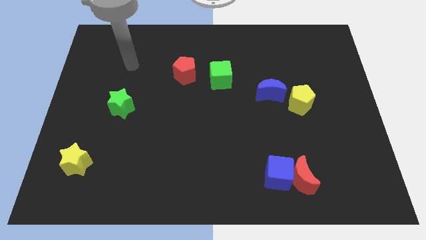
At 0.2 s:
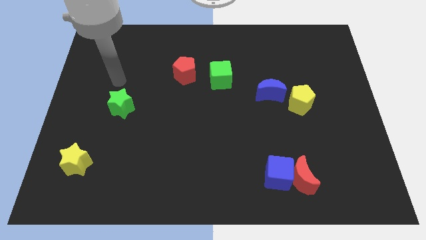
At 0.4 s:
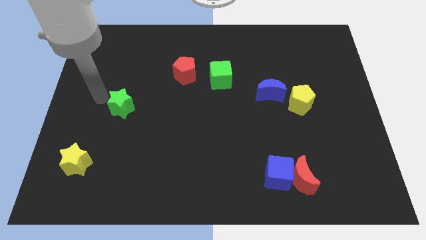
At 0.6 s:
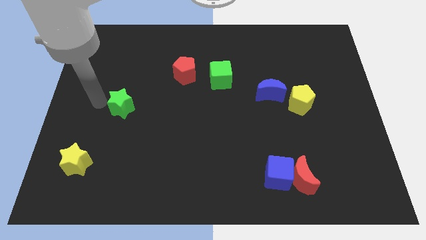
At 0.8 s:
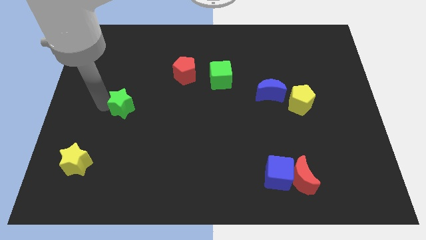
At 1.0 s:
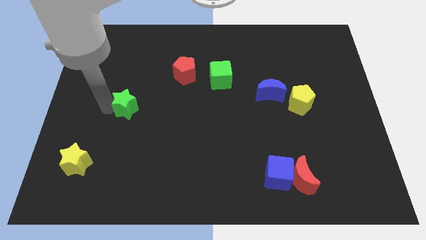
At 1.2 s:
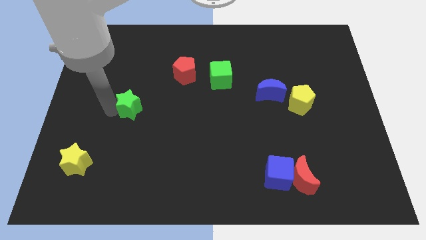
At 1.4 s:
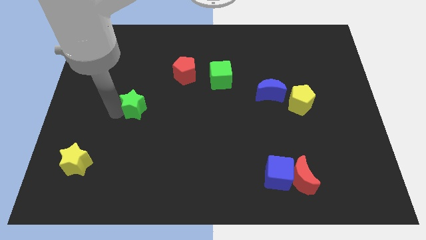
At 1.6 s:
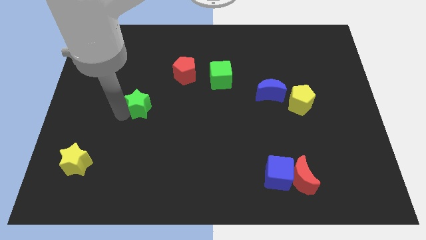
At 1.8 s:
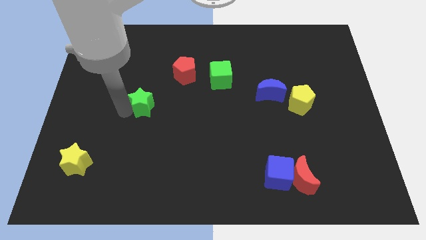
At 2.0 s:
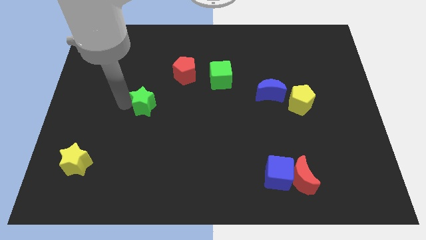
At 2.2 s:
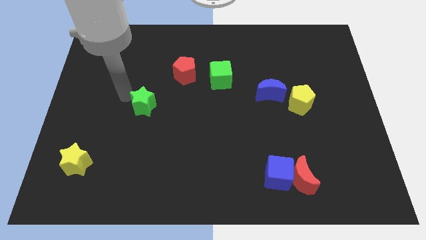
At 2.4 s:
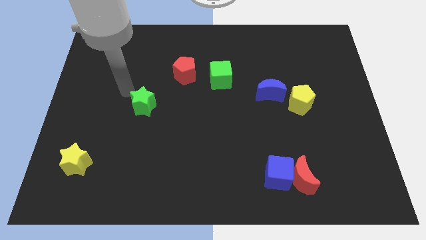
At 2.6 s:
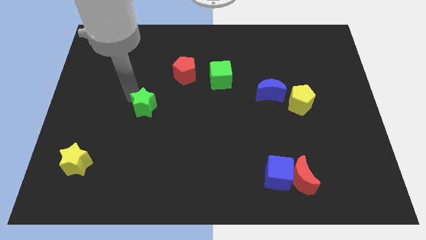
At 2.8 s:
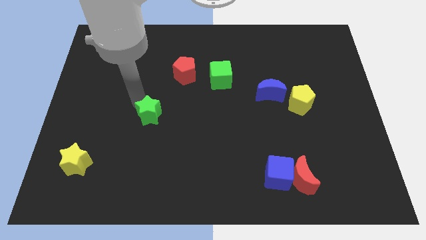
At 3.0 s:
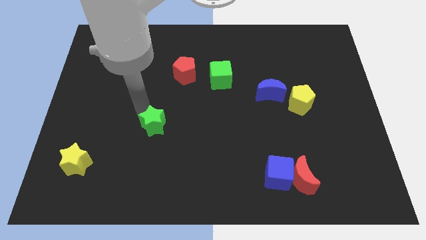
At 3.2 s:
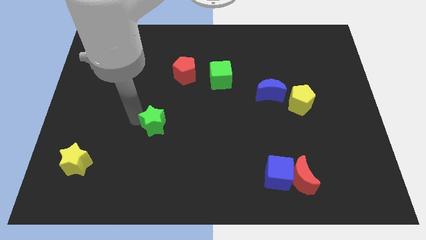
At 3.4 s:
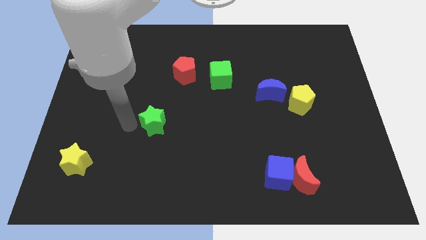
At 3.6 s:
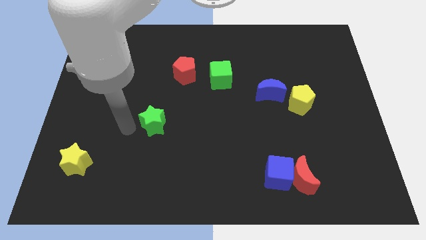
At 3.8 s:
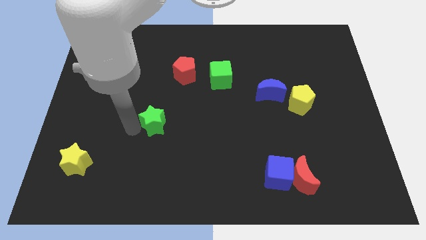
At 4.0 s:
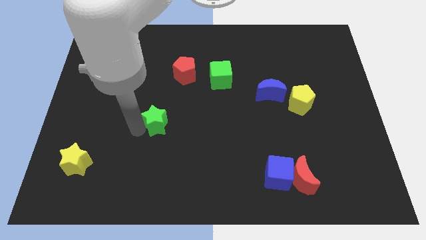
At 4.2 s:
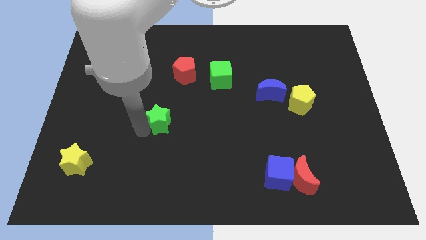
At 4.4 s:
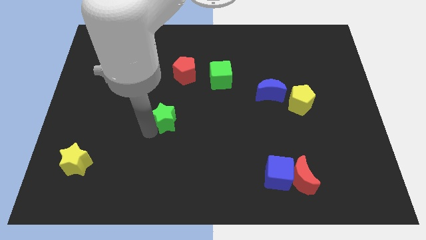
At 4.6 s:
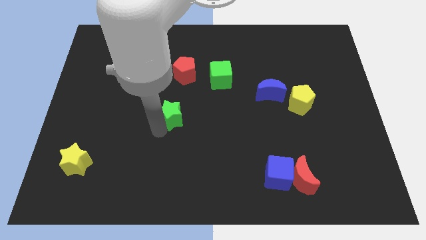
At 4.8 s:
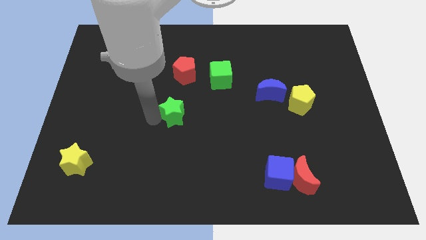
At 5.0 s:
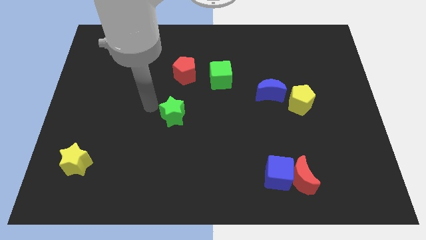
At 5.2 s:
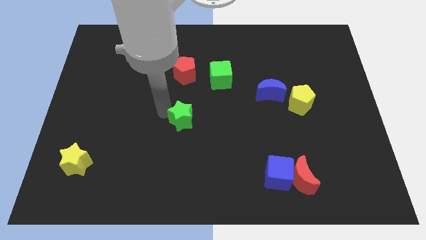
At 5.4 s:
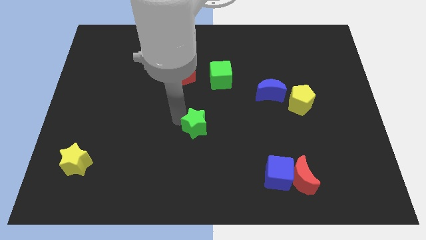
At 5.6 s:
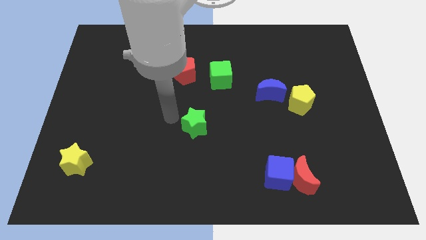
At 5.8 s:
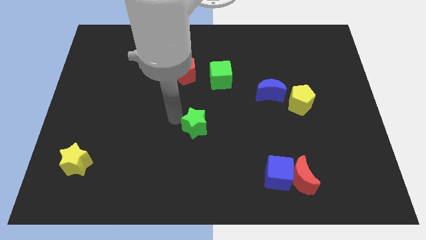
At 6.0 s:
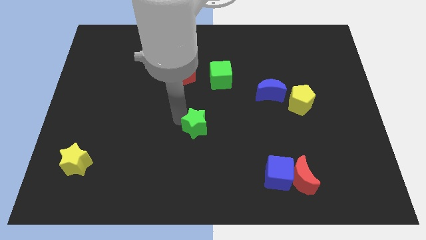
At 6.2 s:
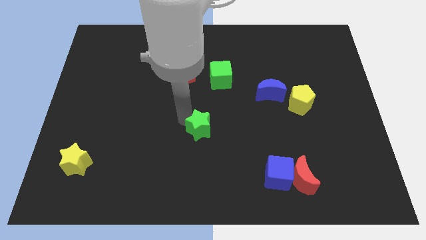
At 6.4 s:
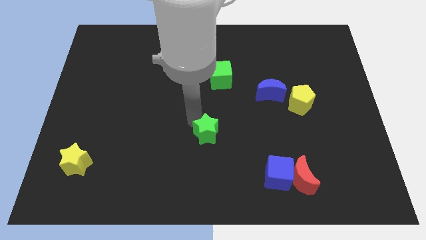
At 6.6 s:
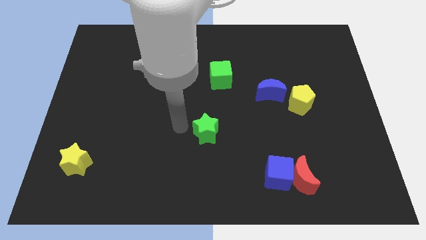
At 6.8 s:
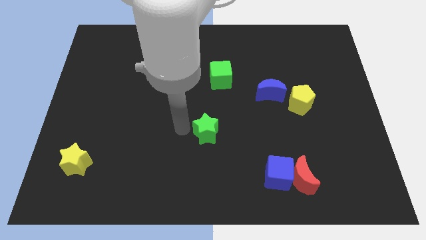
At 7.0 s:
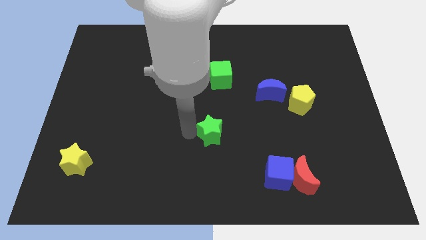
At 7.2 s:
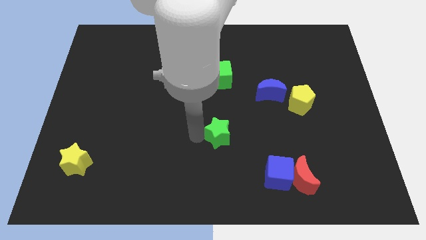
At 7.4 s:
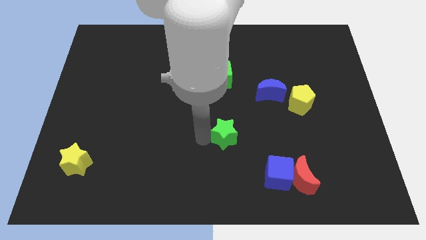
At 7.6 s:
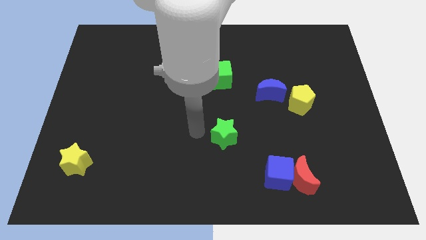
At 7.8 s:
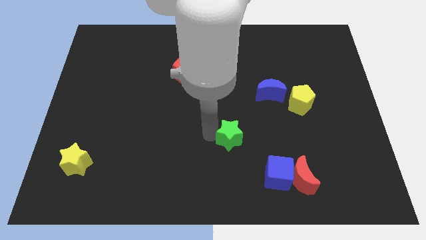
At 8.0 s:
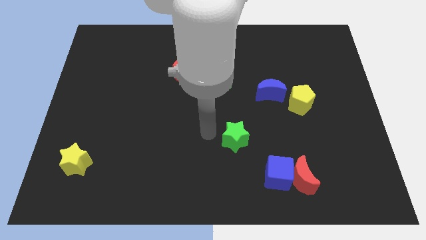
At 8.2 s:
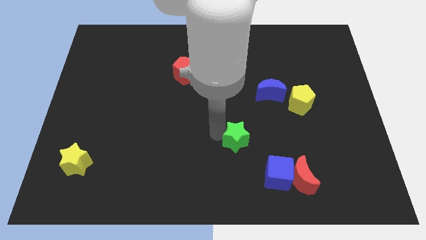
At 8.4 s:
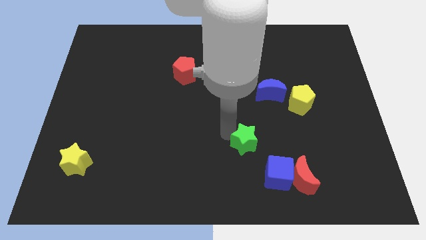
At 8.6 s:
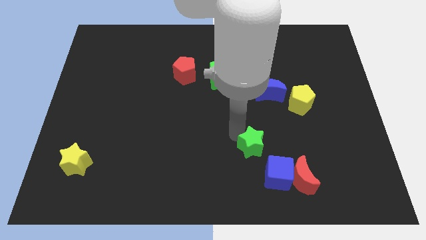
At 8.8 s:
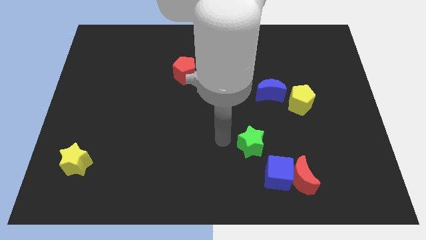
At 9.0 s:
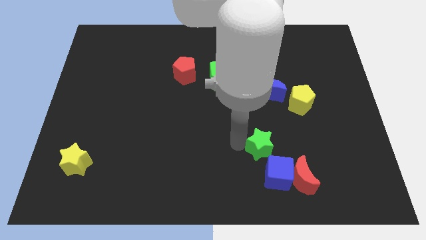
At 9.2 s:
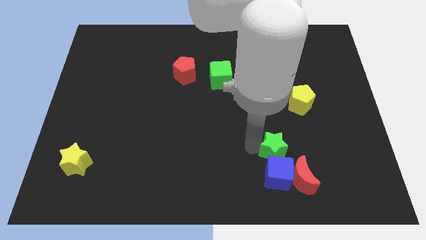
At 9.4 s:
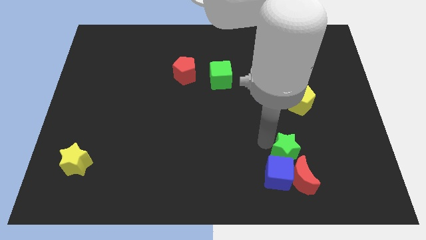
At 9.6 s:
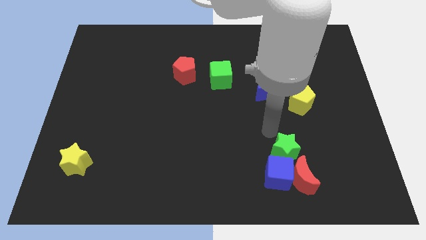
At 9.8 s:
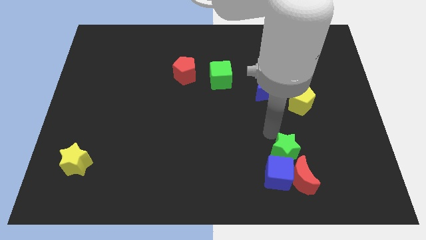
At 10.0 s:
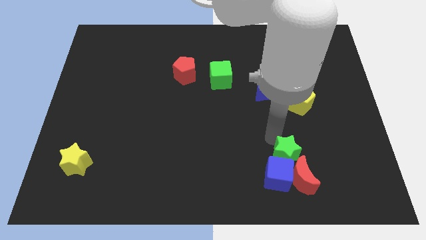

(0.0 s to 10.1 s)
slide the green star towards the red moon

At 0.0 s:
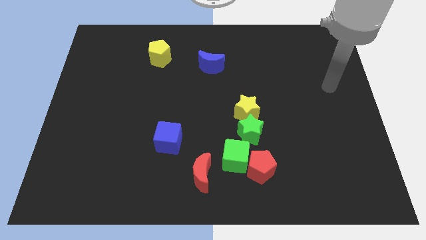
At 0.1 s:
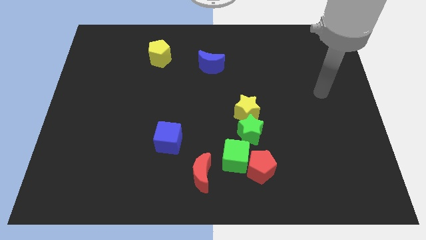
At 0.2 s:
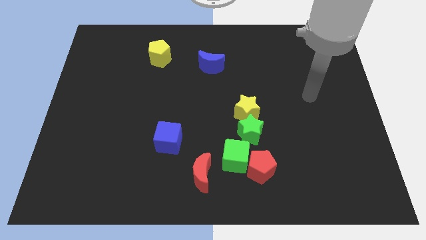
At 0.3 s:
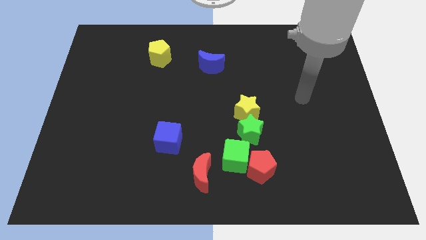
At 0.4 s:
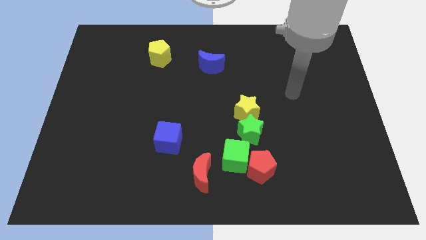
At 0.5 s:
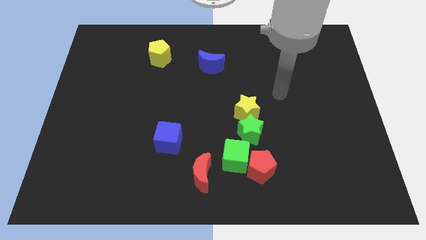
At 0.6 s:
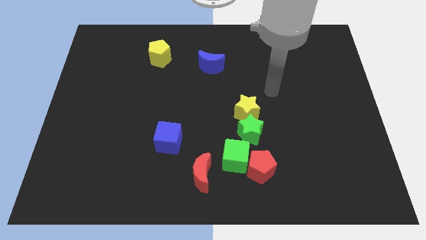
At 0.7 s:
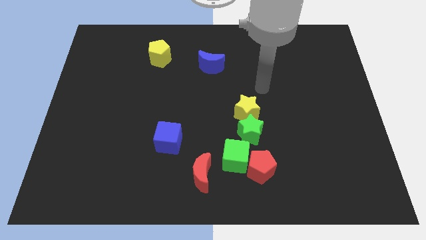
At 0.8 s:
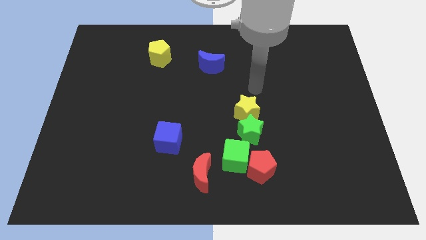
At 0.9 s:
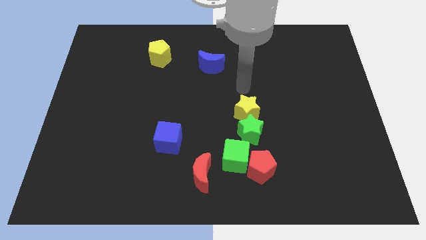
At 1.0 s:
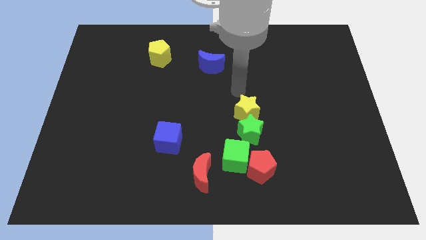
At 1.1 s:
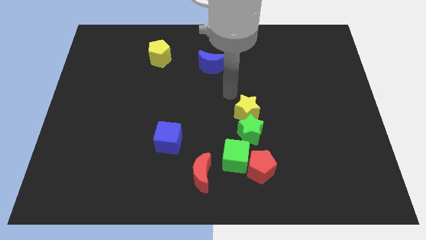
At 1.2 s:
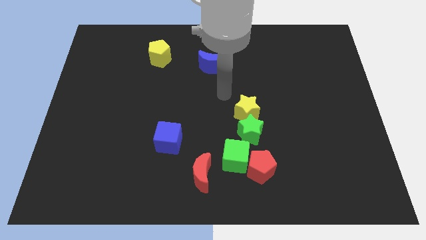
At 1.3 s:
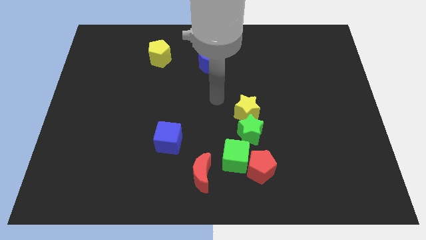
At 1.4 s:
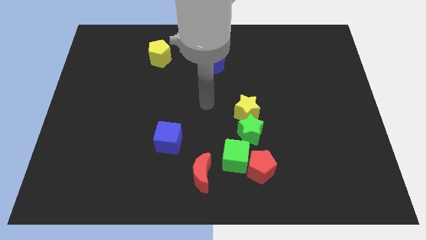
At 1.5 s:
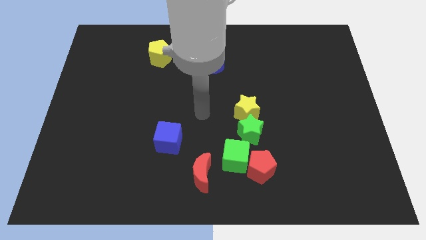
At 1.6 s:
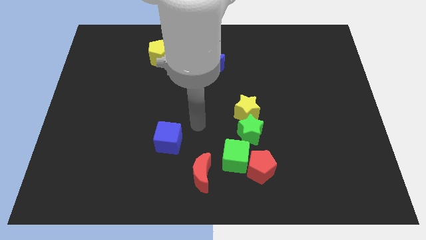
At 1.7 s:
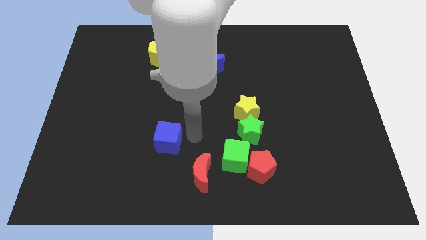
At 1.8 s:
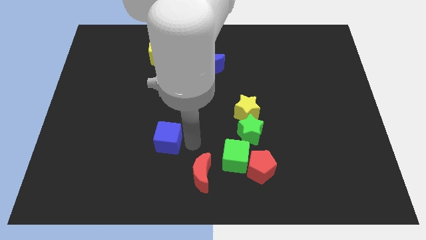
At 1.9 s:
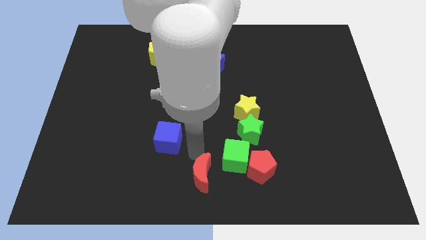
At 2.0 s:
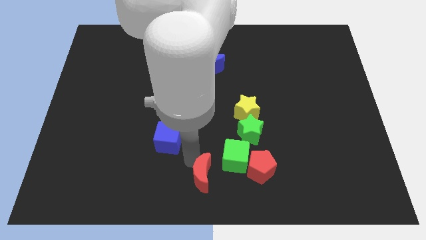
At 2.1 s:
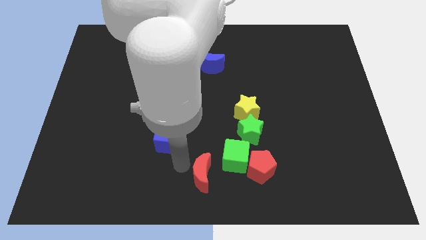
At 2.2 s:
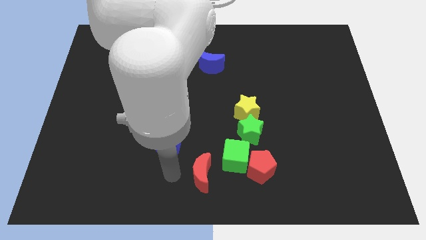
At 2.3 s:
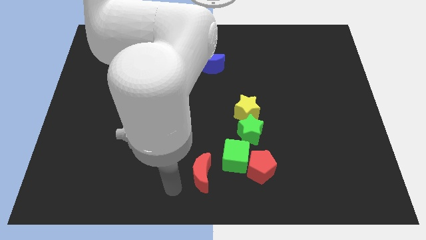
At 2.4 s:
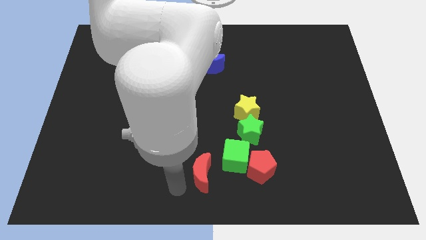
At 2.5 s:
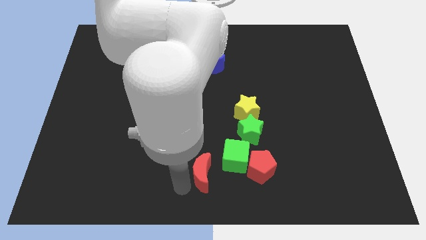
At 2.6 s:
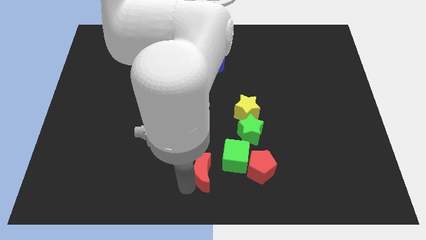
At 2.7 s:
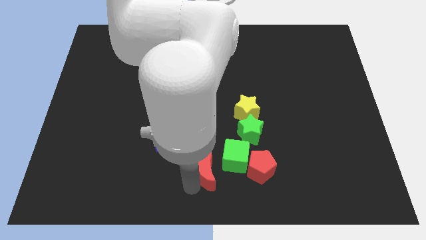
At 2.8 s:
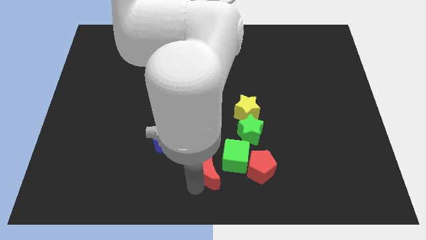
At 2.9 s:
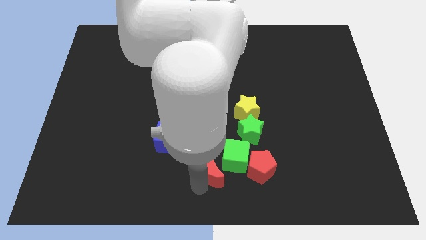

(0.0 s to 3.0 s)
push the red moon next to the green cube
